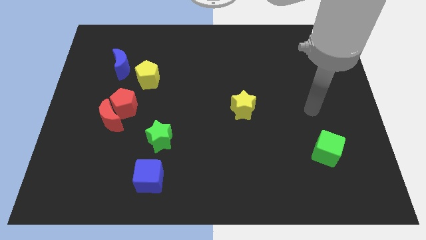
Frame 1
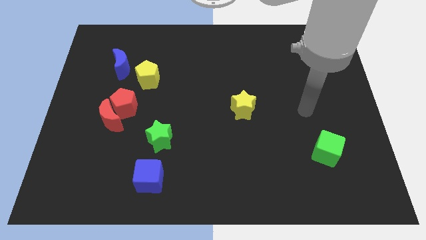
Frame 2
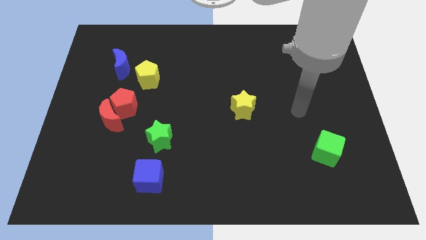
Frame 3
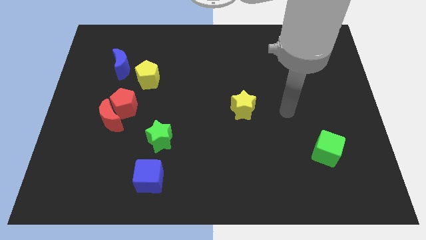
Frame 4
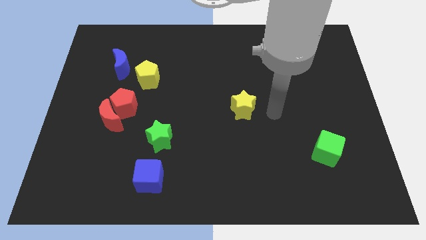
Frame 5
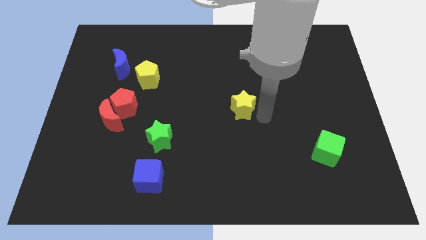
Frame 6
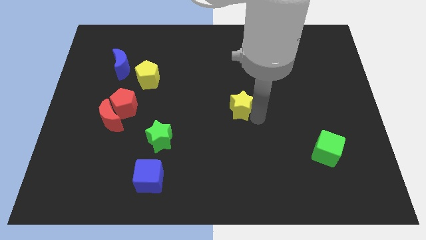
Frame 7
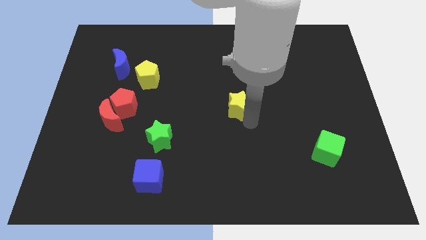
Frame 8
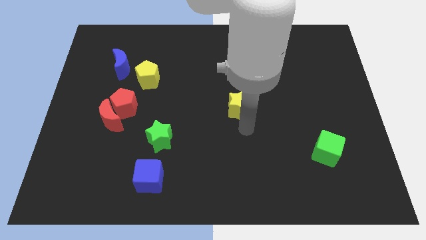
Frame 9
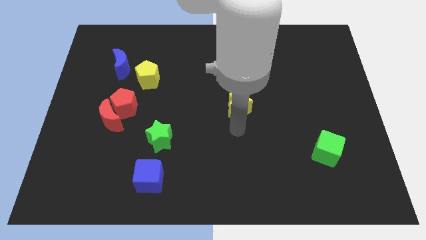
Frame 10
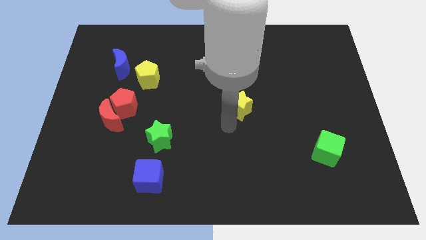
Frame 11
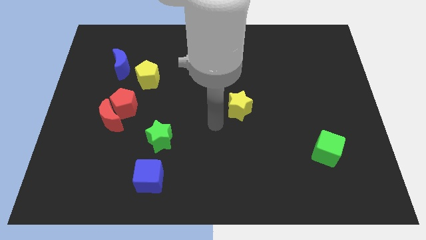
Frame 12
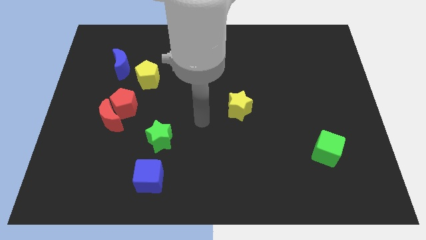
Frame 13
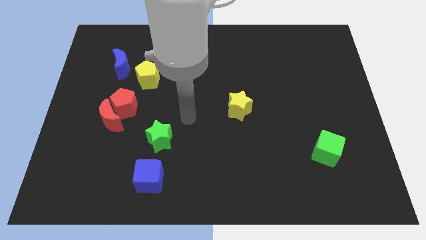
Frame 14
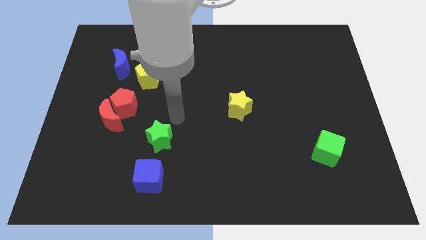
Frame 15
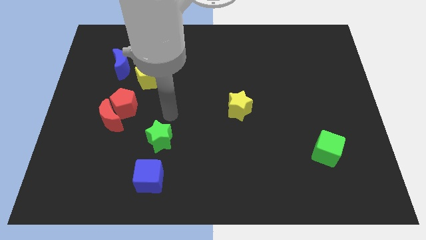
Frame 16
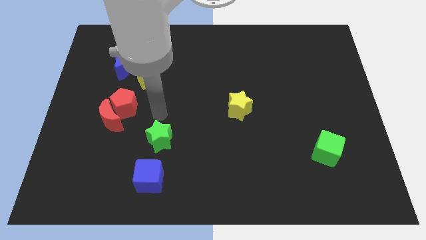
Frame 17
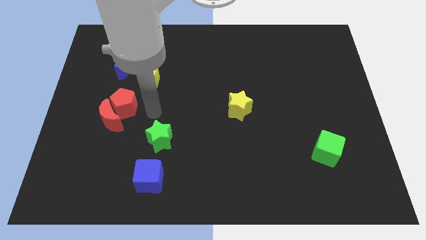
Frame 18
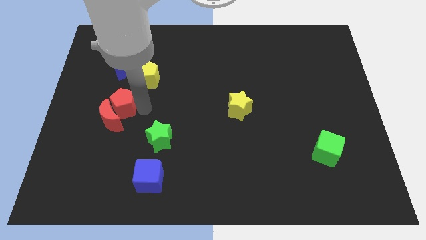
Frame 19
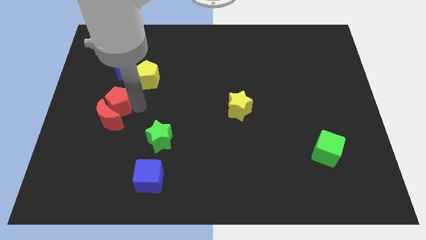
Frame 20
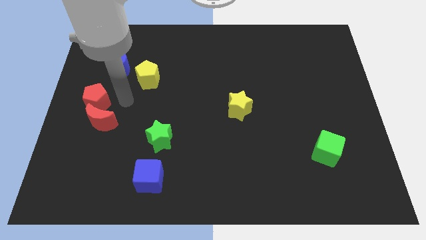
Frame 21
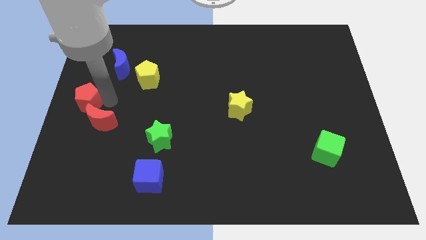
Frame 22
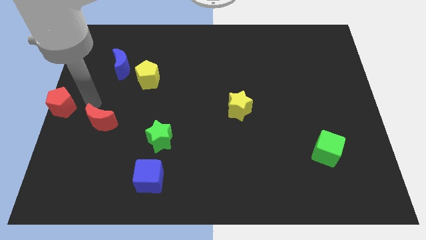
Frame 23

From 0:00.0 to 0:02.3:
pull the red moon apart from the red pentagon

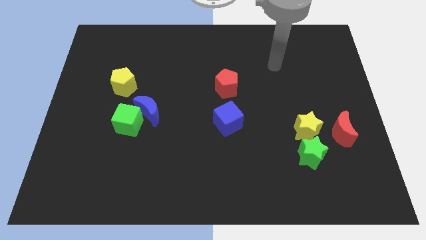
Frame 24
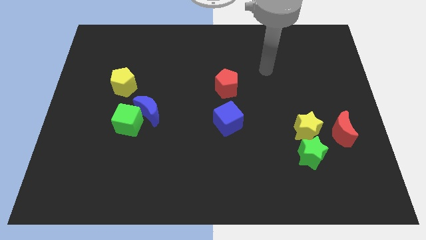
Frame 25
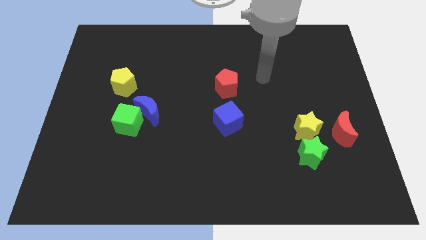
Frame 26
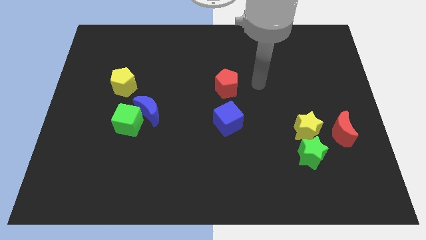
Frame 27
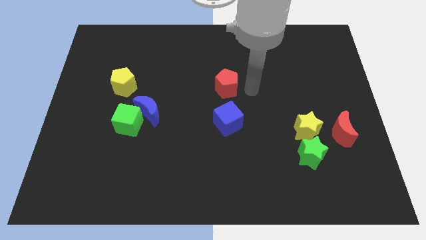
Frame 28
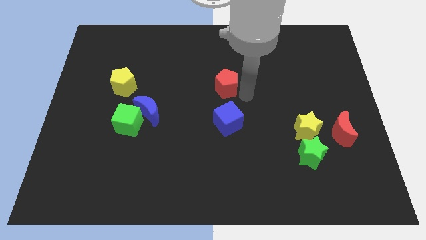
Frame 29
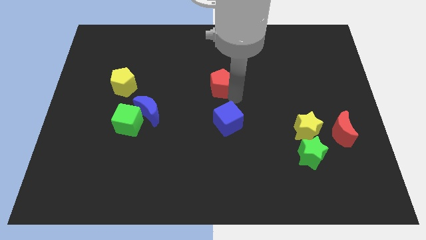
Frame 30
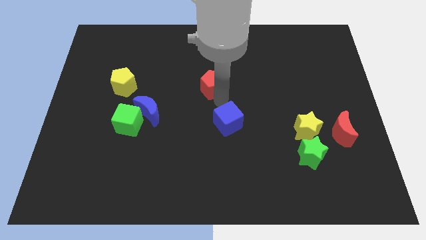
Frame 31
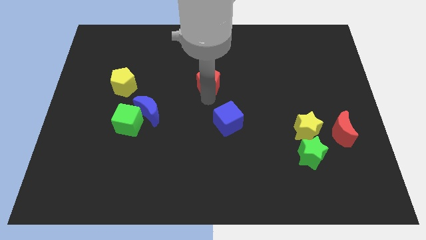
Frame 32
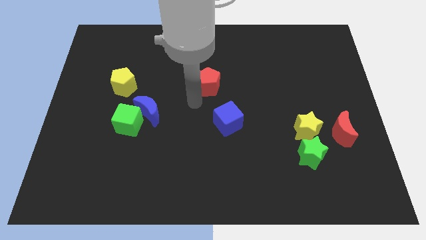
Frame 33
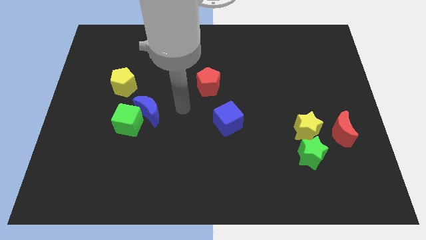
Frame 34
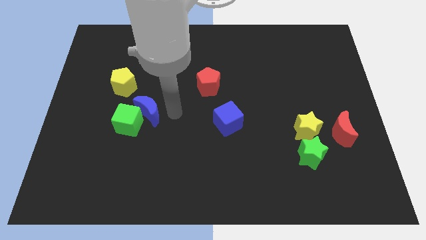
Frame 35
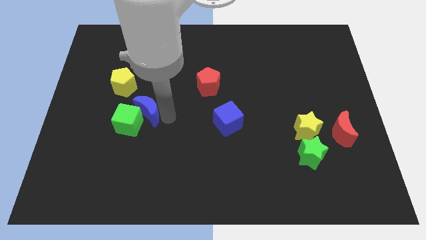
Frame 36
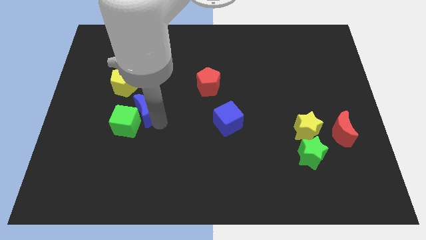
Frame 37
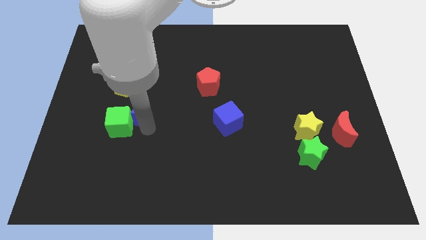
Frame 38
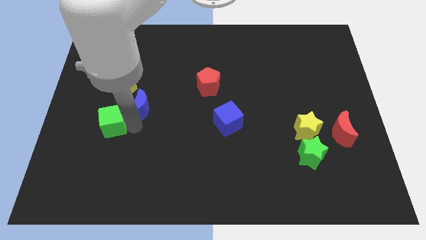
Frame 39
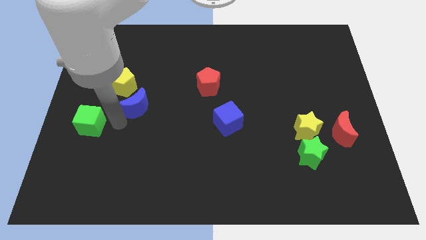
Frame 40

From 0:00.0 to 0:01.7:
separate the blue moon from the green cube

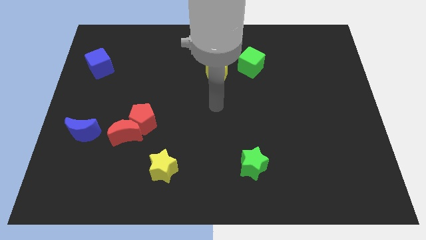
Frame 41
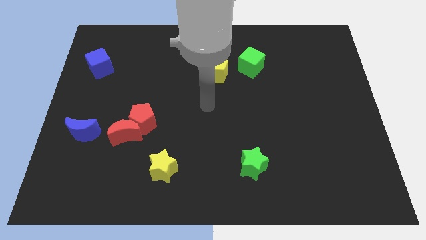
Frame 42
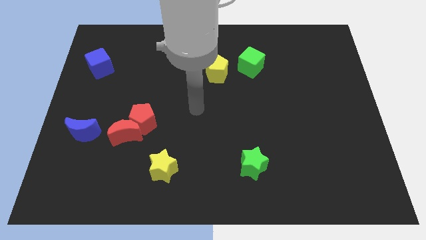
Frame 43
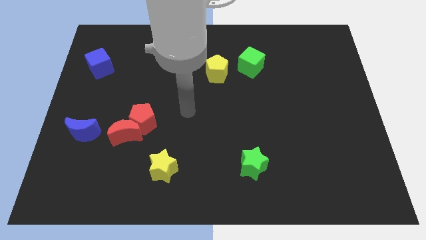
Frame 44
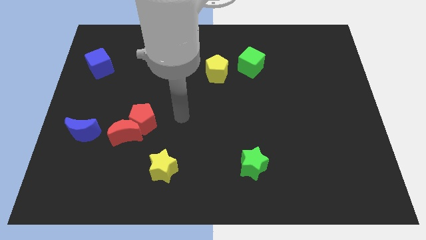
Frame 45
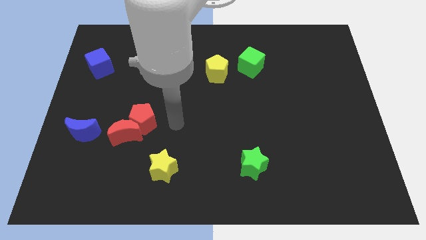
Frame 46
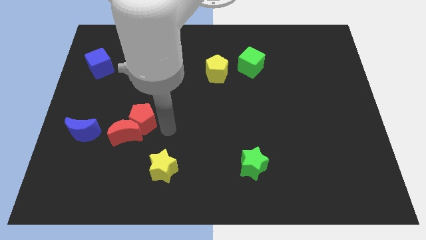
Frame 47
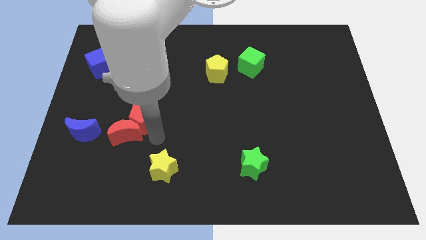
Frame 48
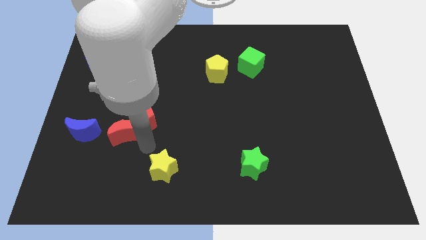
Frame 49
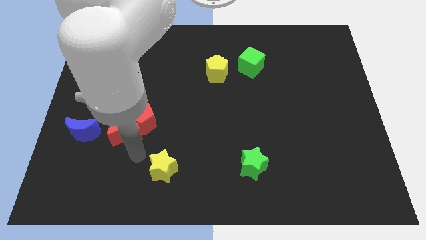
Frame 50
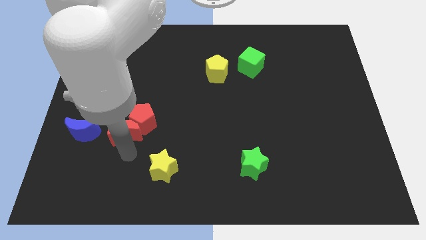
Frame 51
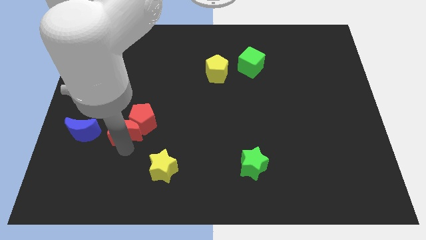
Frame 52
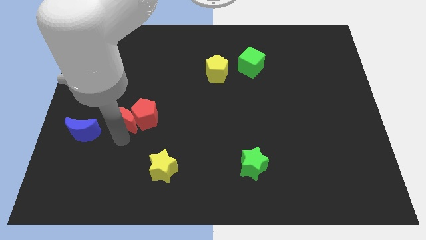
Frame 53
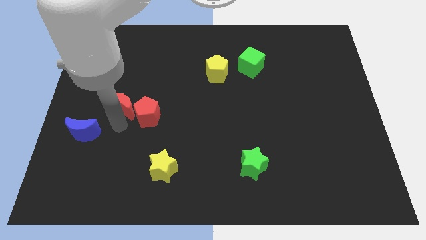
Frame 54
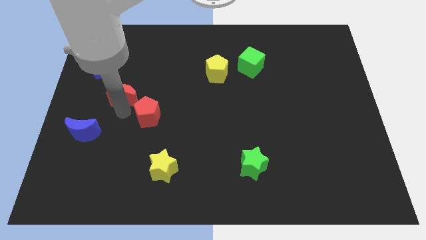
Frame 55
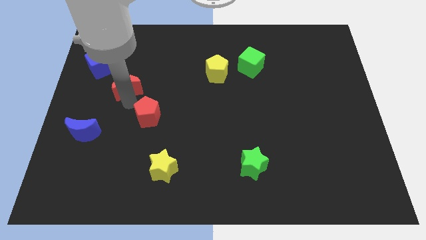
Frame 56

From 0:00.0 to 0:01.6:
separate the red pentagon from the red moon

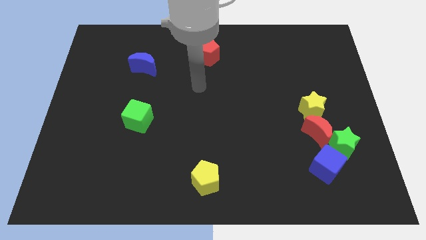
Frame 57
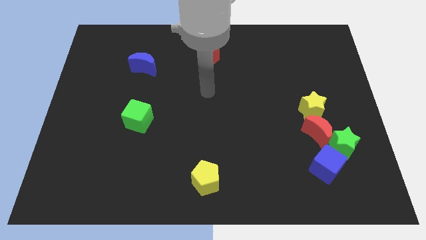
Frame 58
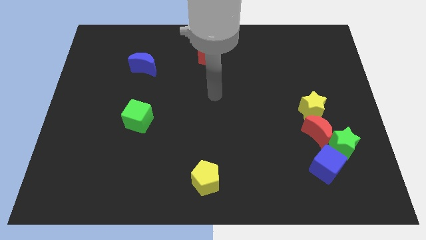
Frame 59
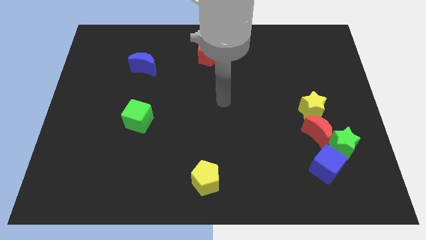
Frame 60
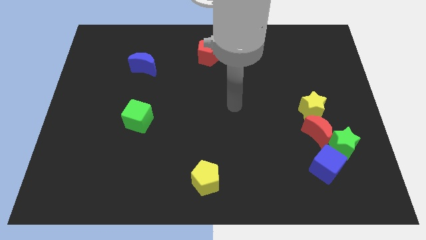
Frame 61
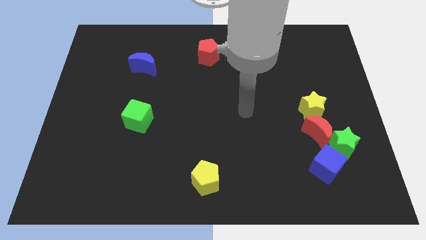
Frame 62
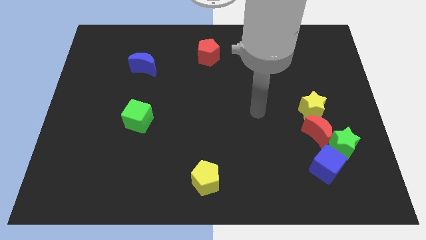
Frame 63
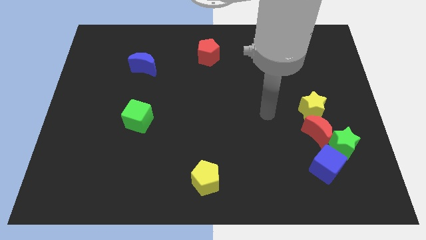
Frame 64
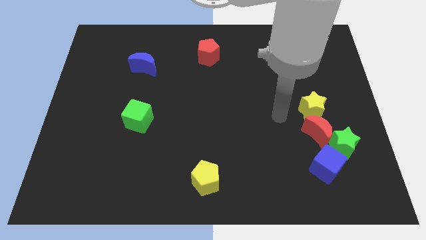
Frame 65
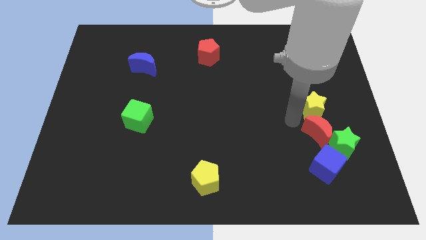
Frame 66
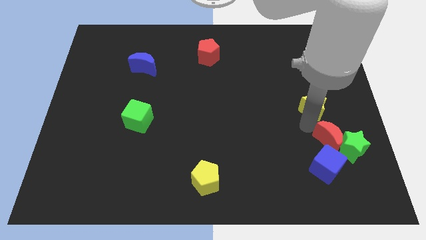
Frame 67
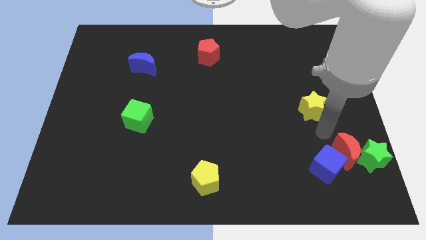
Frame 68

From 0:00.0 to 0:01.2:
separate the yellow star from the red moon

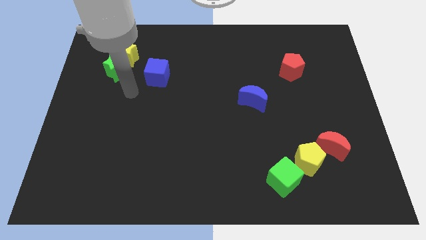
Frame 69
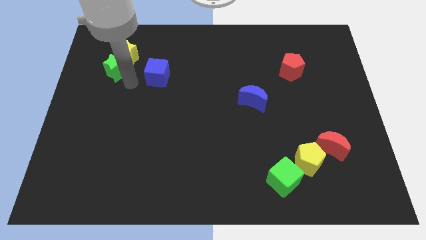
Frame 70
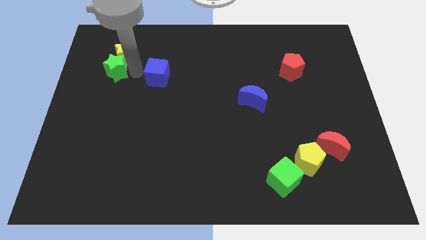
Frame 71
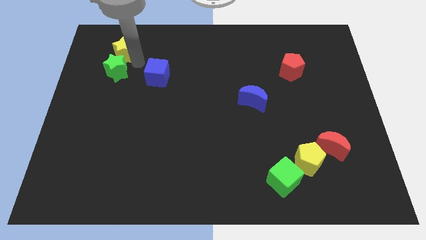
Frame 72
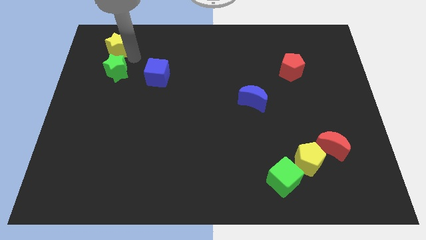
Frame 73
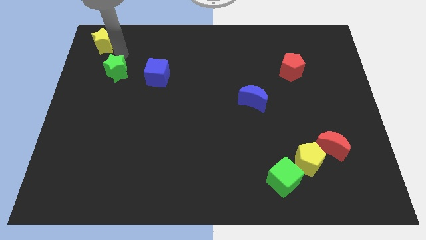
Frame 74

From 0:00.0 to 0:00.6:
move the green star away from the yellow star

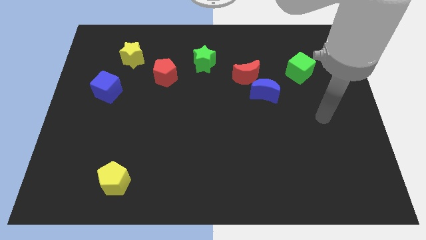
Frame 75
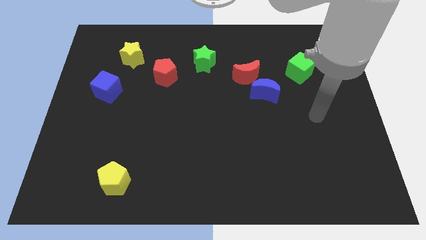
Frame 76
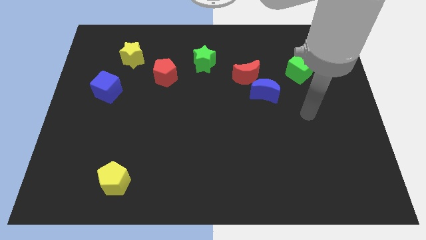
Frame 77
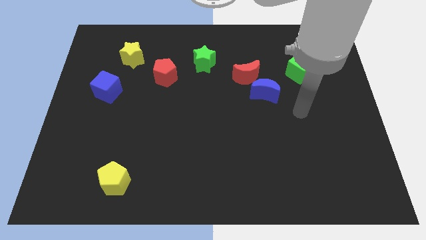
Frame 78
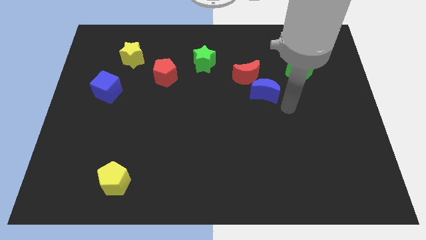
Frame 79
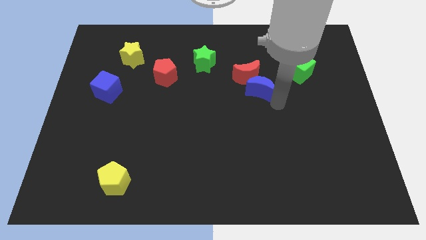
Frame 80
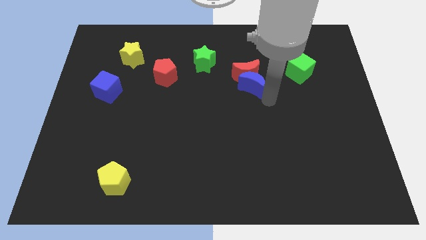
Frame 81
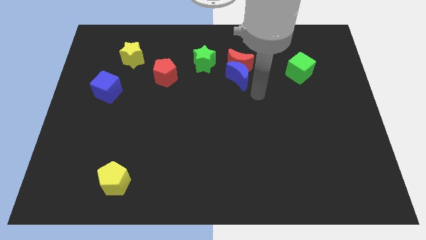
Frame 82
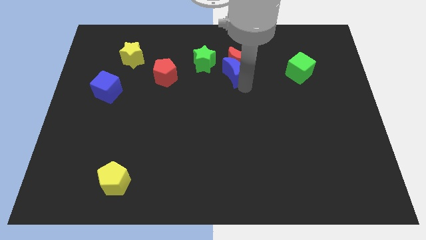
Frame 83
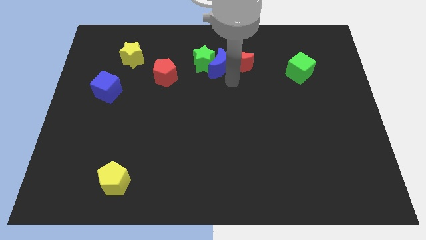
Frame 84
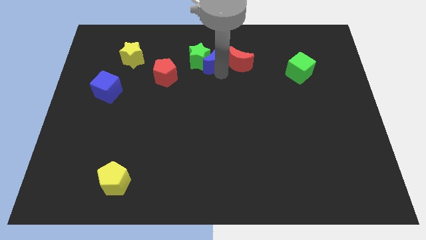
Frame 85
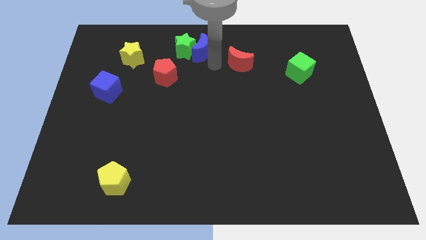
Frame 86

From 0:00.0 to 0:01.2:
move the red moon away from the blue moon

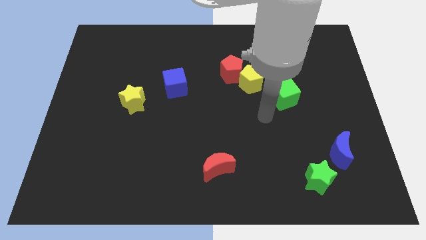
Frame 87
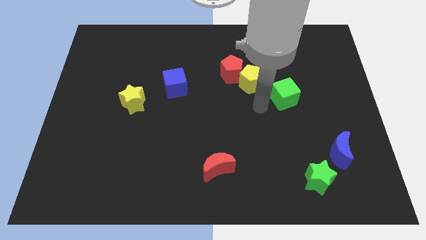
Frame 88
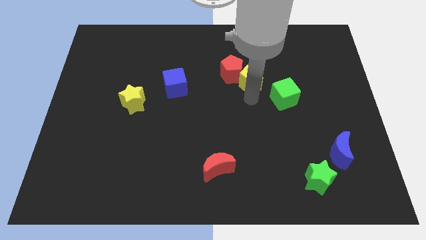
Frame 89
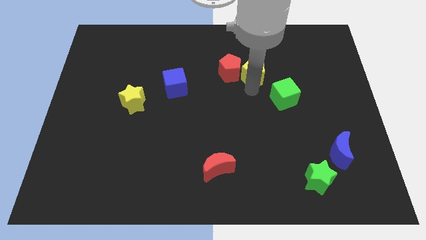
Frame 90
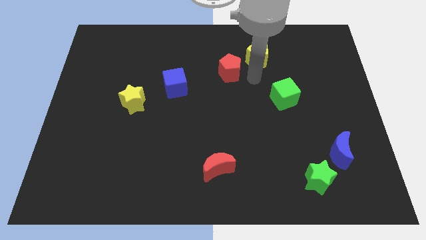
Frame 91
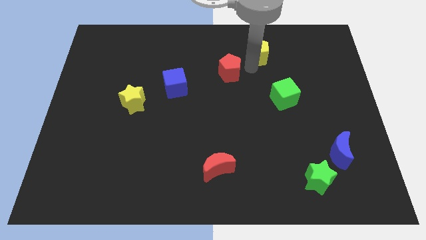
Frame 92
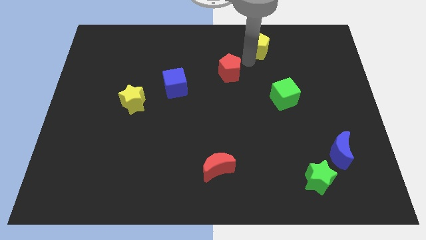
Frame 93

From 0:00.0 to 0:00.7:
move the red pentagon away from the yellow pentagon

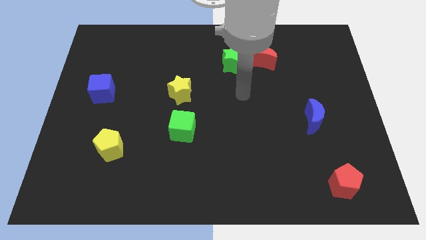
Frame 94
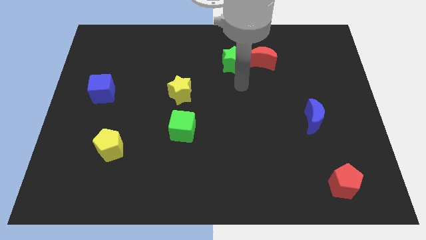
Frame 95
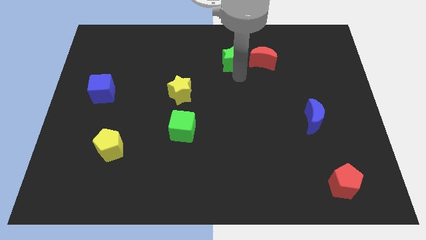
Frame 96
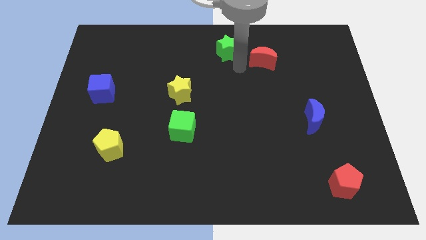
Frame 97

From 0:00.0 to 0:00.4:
pull the red moon apart from the green star
